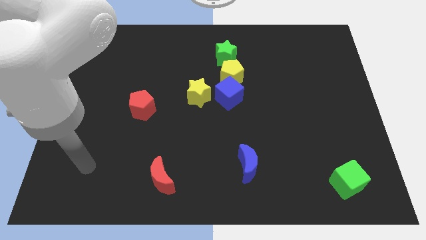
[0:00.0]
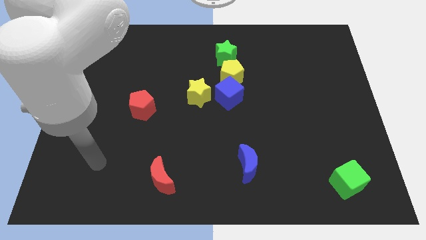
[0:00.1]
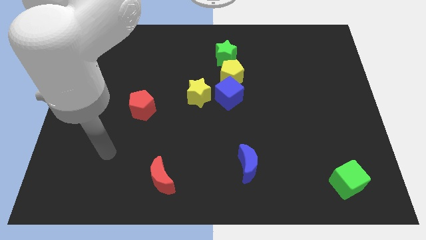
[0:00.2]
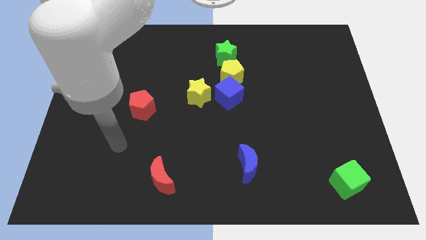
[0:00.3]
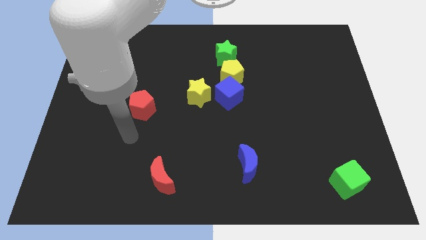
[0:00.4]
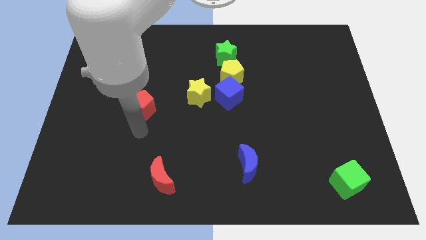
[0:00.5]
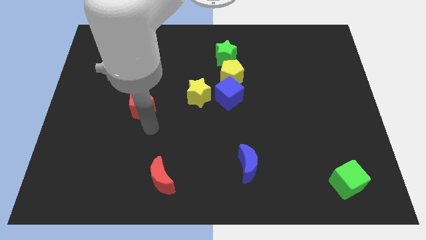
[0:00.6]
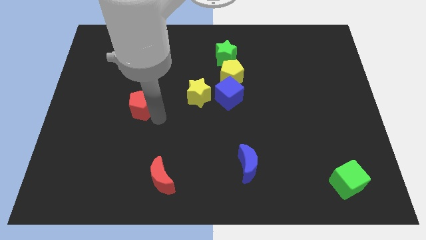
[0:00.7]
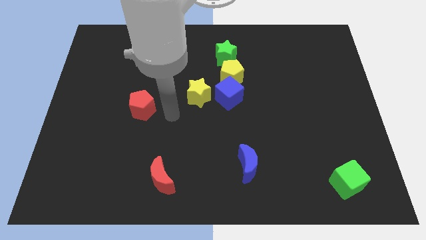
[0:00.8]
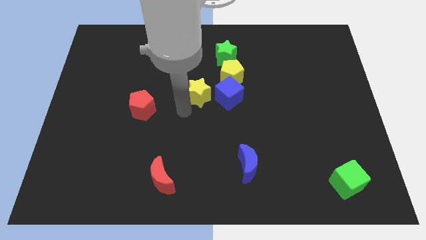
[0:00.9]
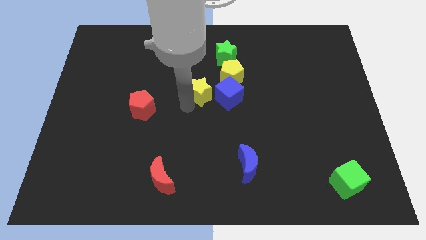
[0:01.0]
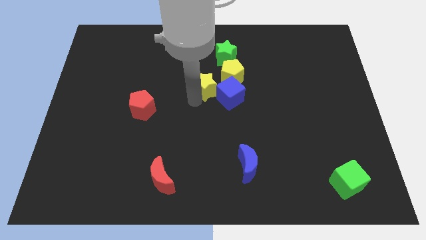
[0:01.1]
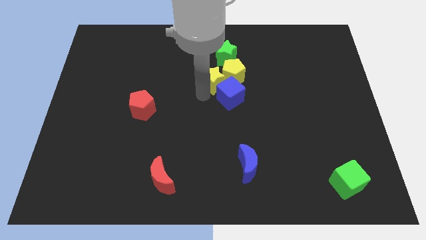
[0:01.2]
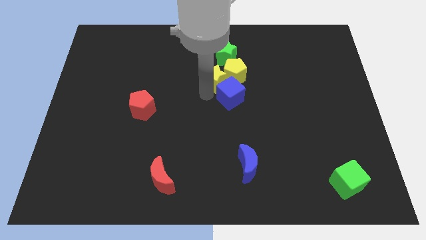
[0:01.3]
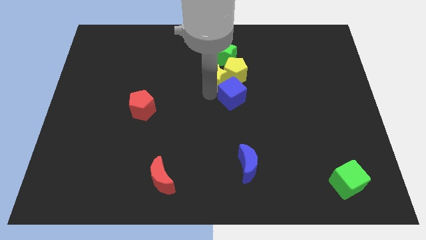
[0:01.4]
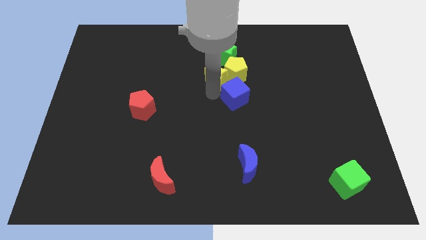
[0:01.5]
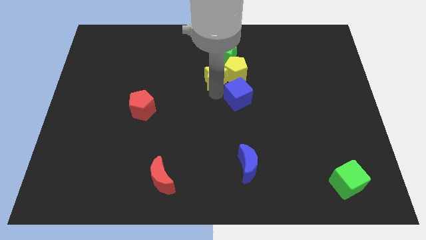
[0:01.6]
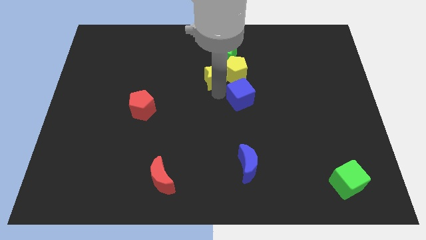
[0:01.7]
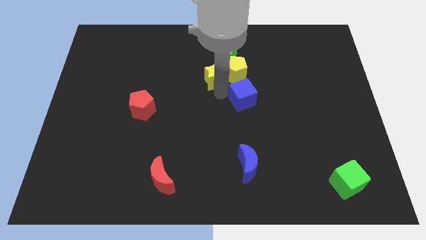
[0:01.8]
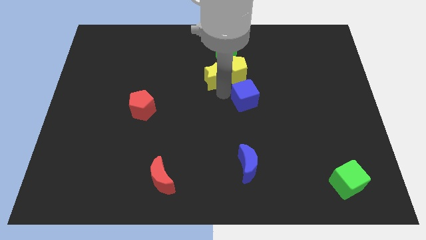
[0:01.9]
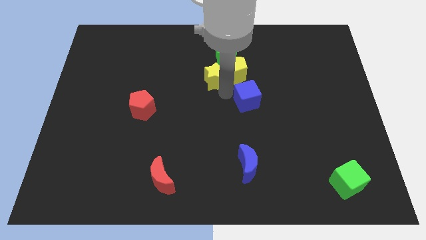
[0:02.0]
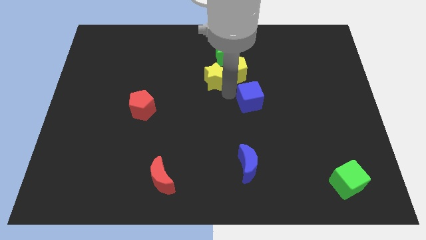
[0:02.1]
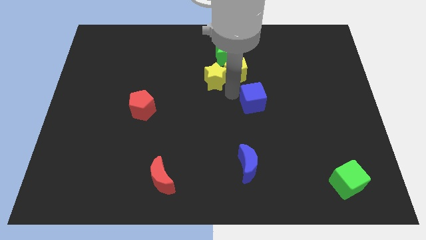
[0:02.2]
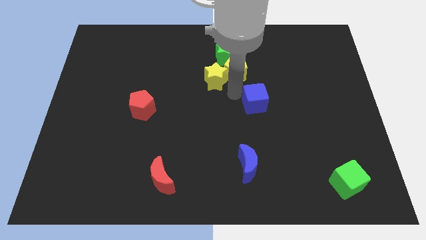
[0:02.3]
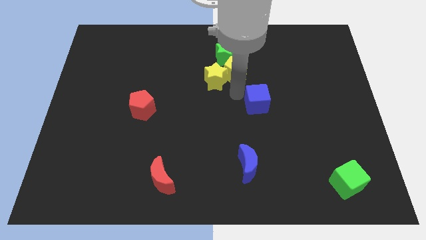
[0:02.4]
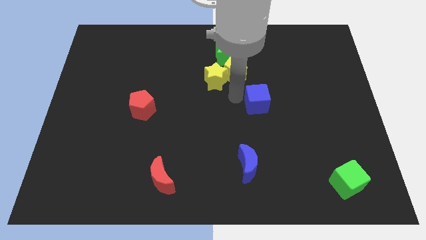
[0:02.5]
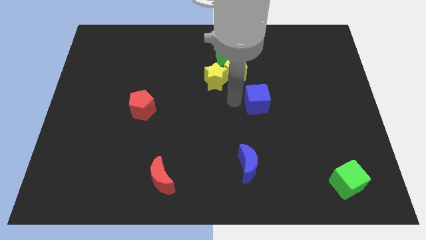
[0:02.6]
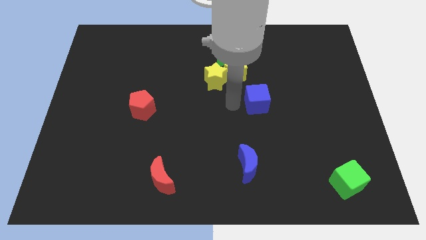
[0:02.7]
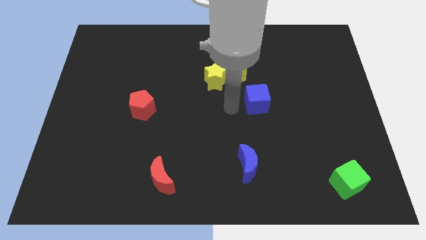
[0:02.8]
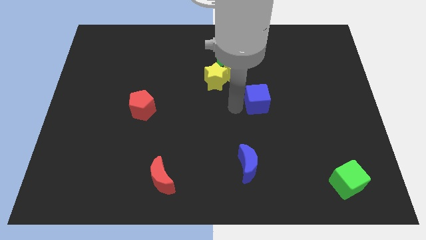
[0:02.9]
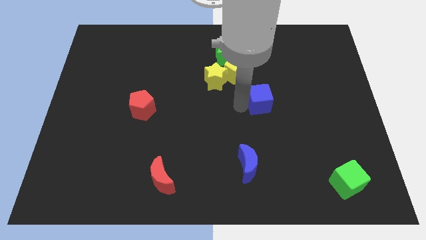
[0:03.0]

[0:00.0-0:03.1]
slightly slide the blue cube to the right

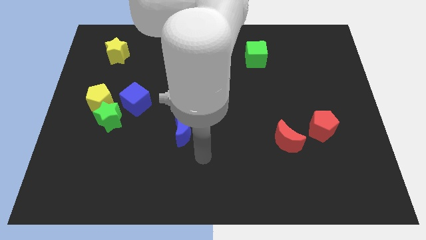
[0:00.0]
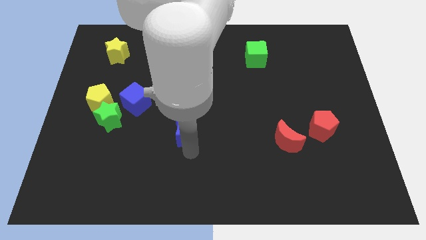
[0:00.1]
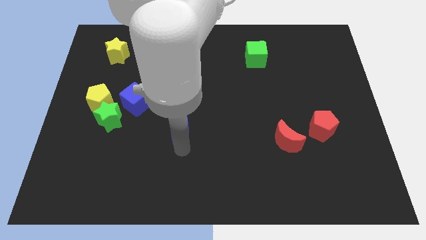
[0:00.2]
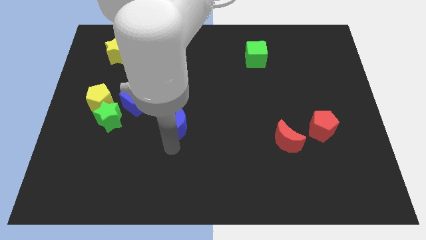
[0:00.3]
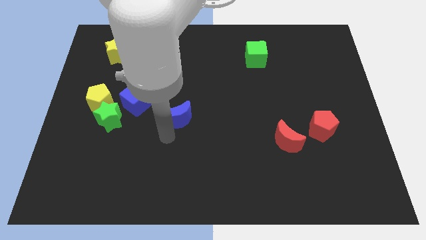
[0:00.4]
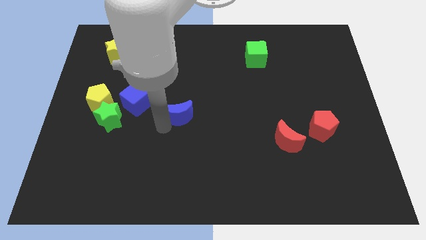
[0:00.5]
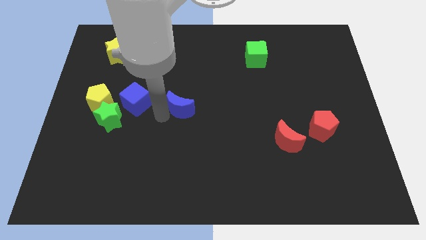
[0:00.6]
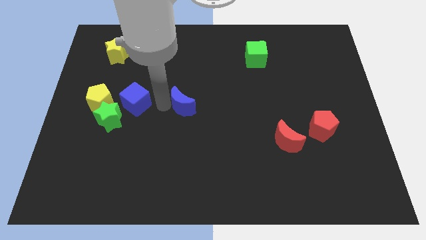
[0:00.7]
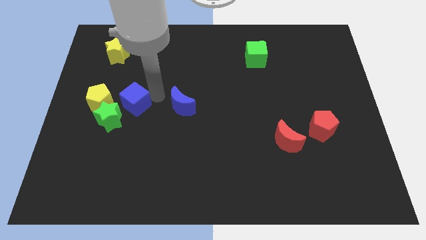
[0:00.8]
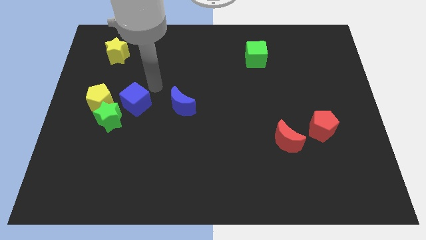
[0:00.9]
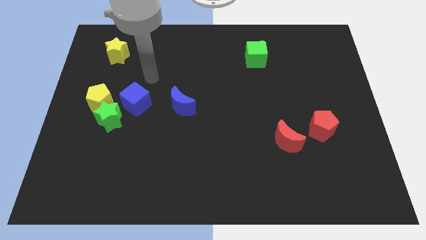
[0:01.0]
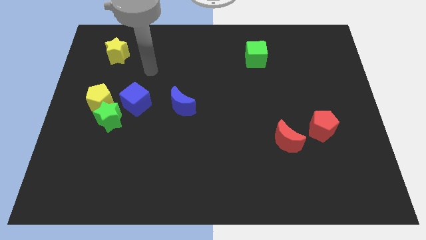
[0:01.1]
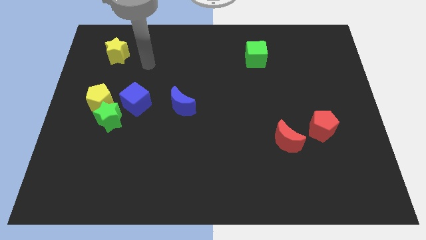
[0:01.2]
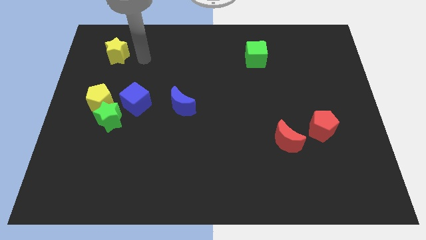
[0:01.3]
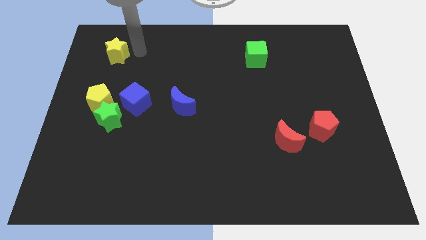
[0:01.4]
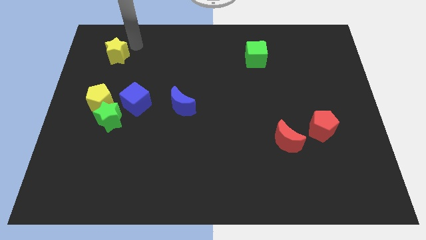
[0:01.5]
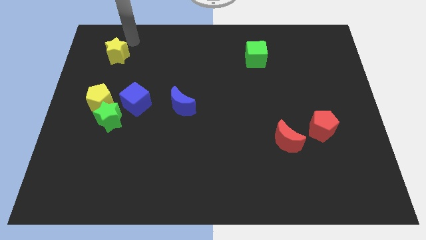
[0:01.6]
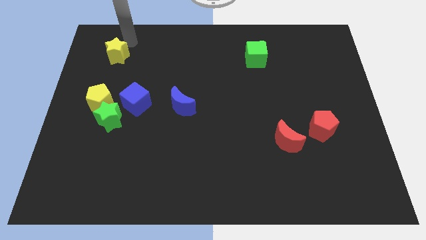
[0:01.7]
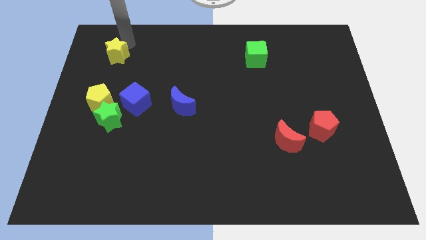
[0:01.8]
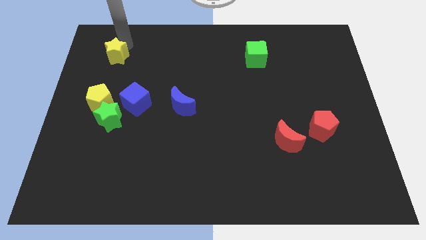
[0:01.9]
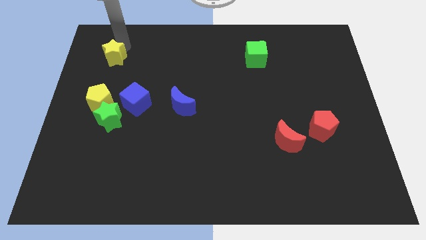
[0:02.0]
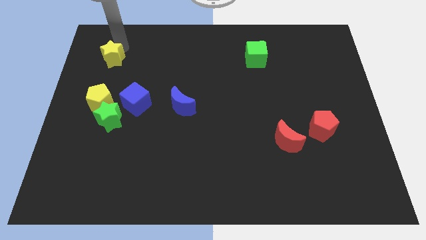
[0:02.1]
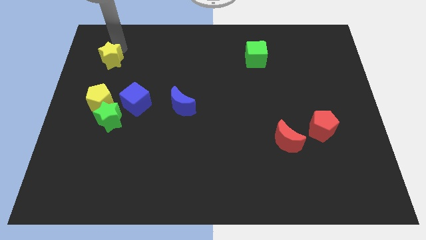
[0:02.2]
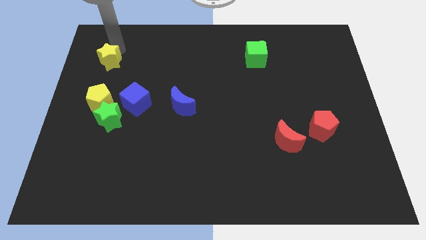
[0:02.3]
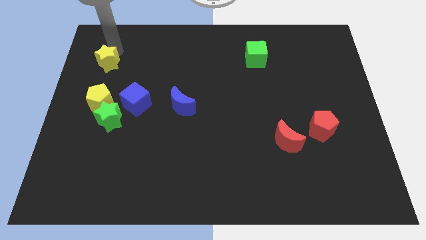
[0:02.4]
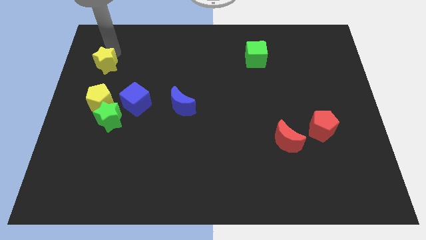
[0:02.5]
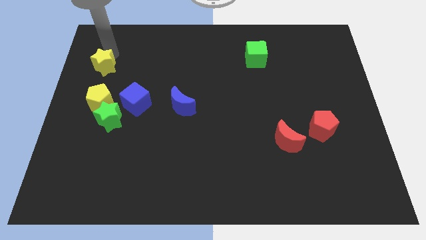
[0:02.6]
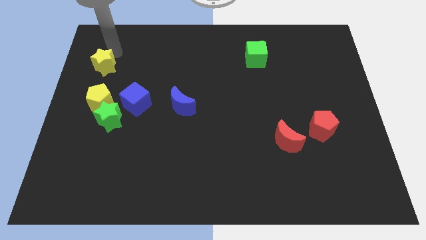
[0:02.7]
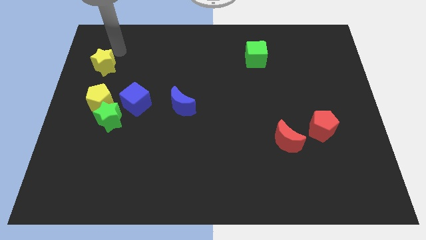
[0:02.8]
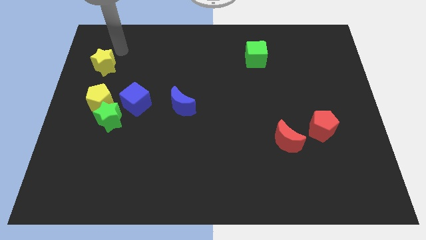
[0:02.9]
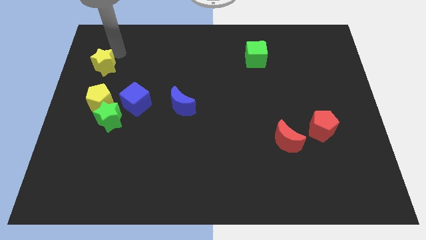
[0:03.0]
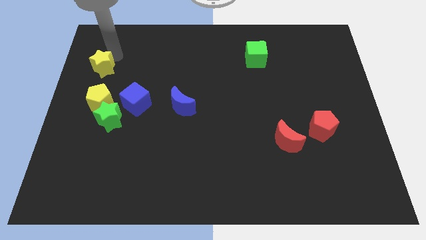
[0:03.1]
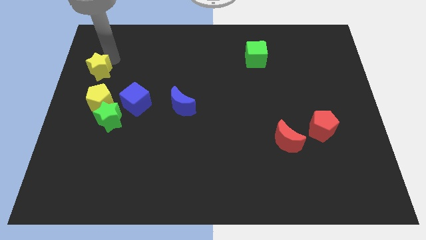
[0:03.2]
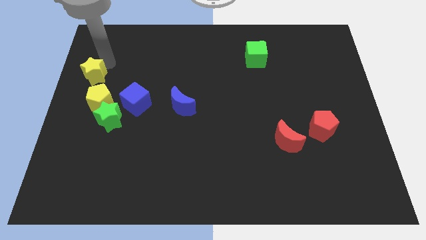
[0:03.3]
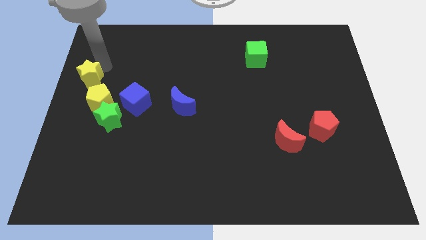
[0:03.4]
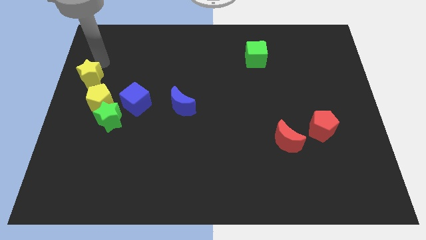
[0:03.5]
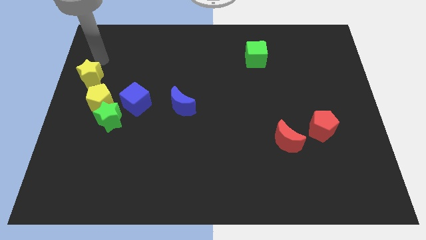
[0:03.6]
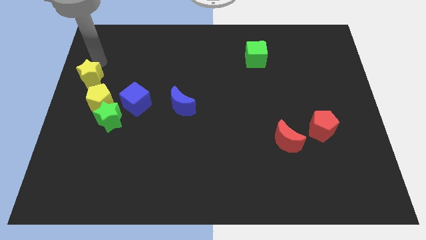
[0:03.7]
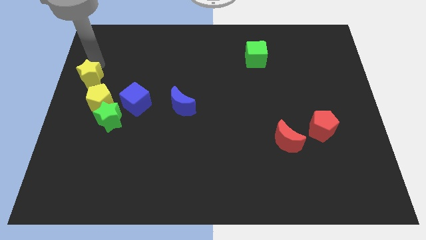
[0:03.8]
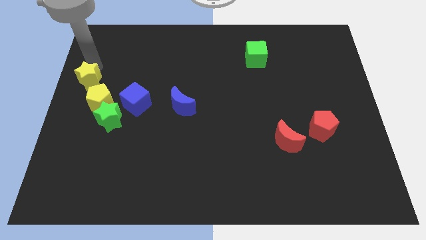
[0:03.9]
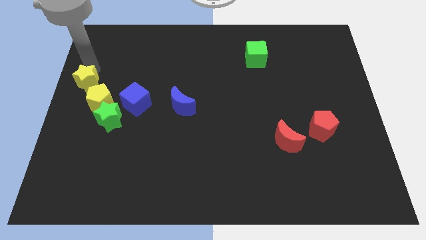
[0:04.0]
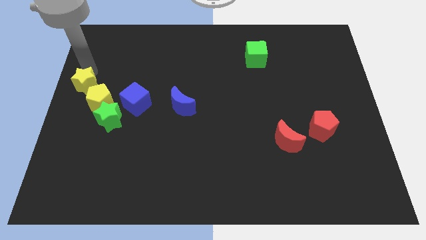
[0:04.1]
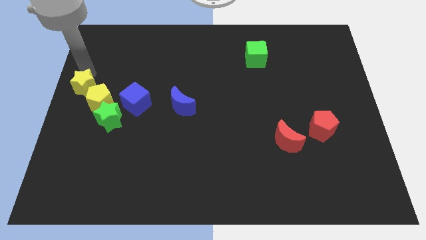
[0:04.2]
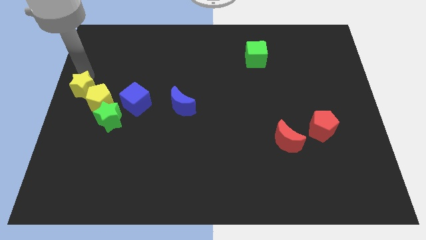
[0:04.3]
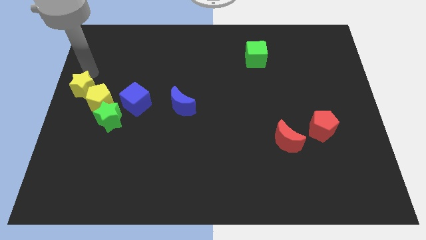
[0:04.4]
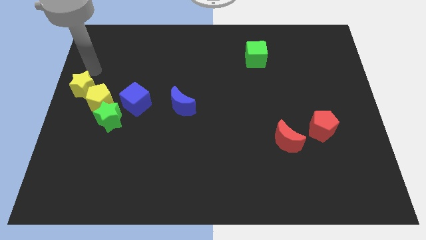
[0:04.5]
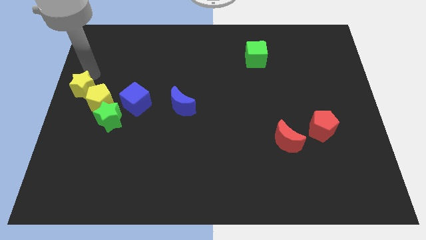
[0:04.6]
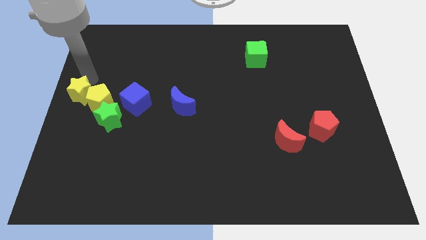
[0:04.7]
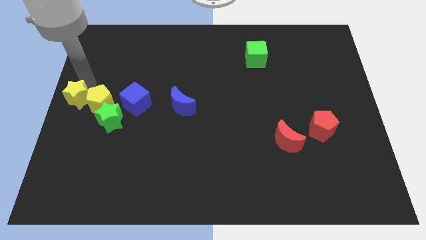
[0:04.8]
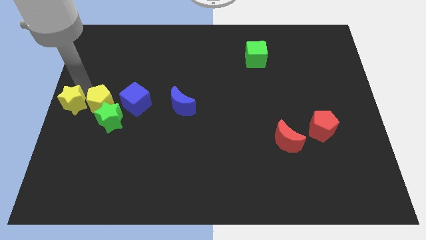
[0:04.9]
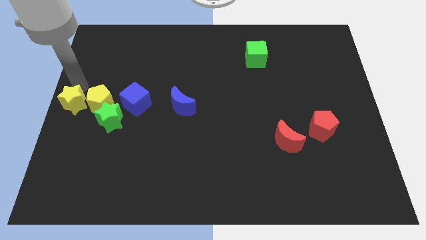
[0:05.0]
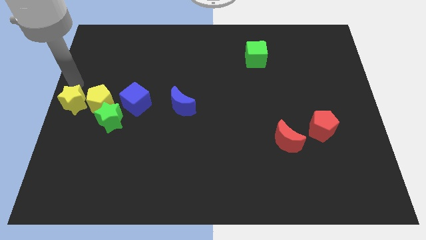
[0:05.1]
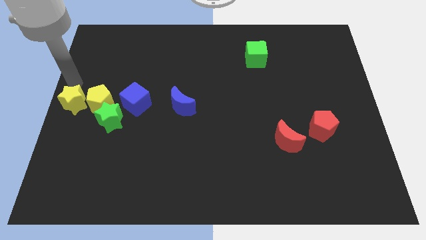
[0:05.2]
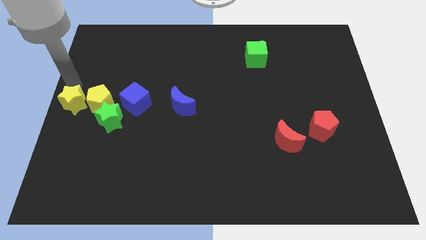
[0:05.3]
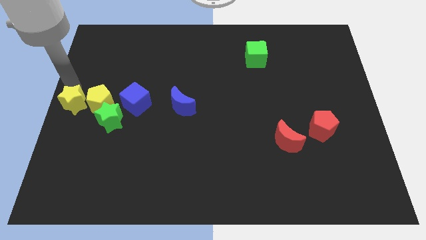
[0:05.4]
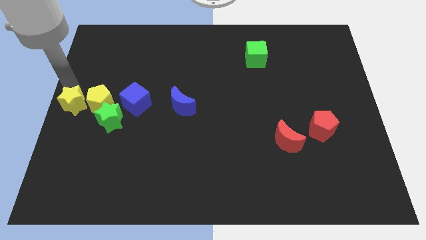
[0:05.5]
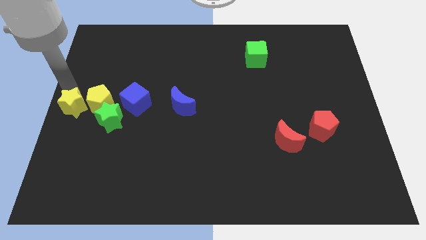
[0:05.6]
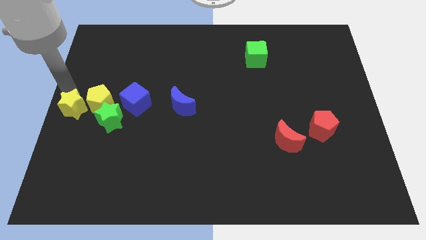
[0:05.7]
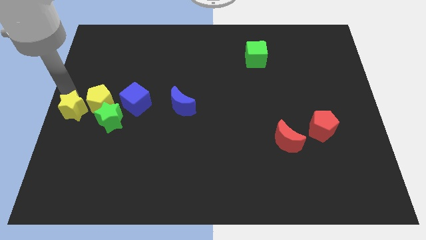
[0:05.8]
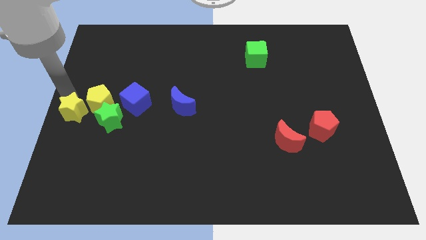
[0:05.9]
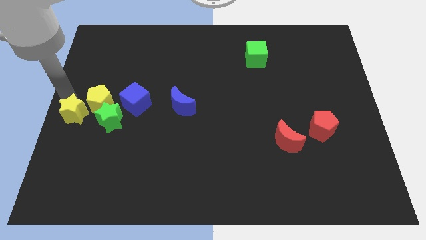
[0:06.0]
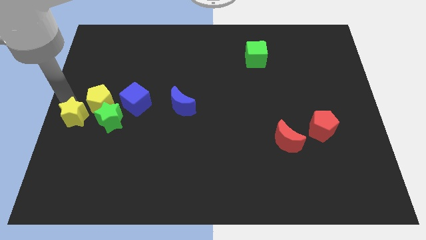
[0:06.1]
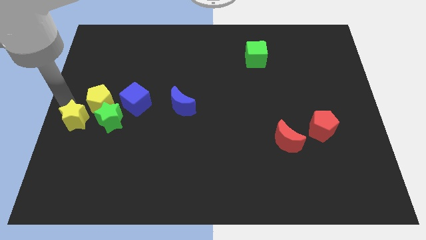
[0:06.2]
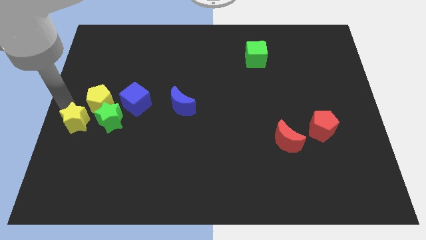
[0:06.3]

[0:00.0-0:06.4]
move the yellow star downwards
